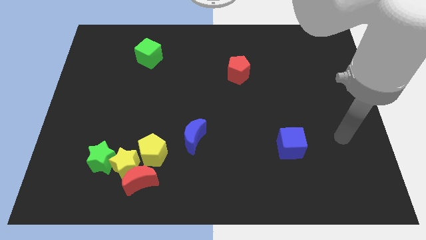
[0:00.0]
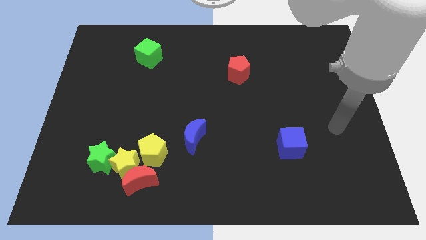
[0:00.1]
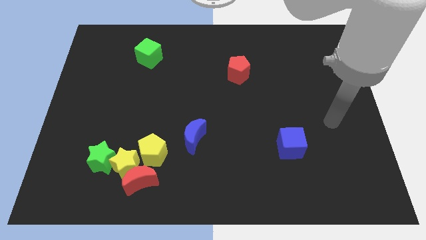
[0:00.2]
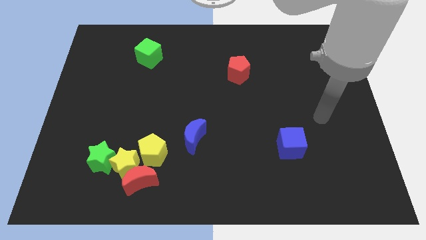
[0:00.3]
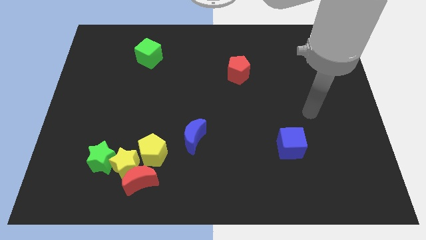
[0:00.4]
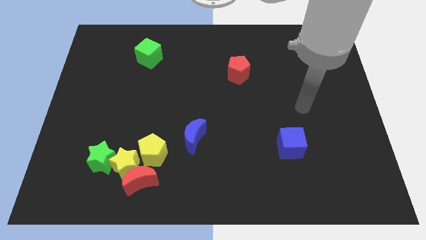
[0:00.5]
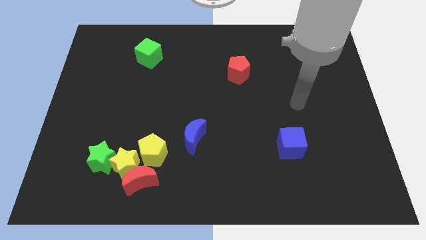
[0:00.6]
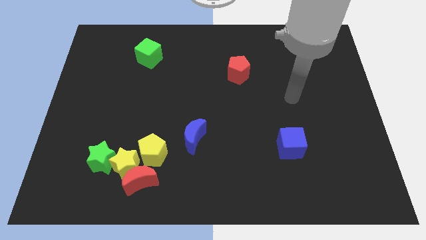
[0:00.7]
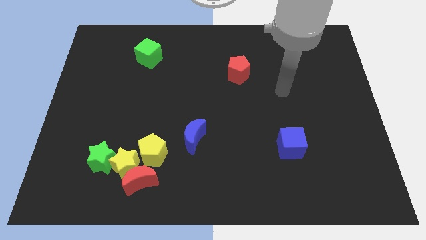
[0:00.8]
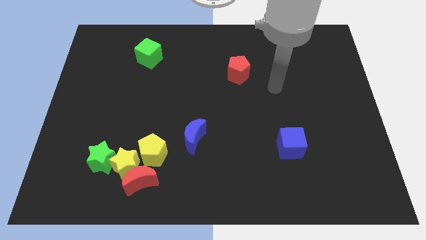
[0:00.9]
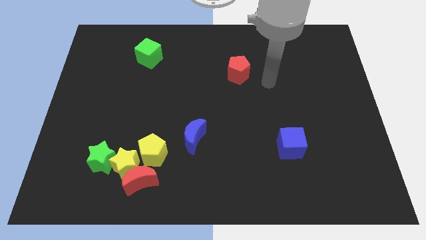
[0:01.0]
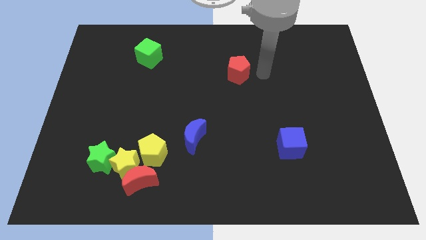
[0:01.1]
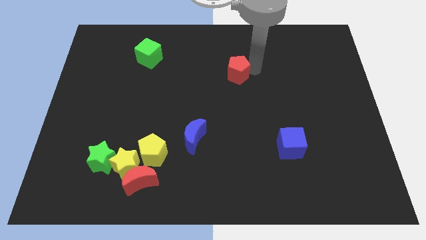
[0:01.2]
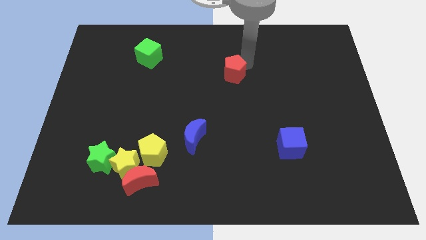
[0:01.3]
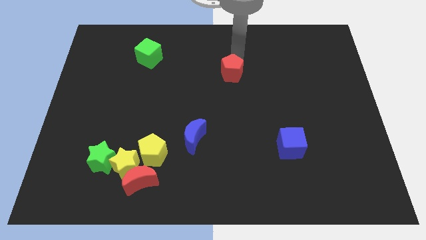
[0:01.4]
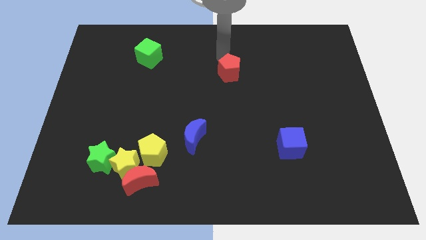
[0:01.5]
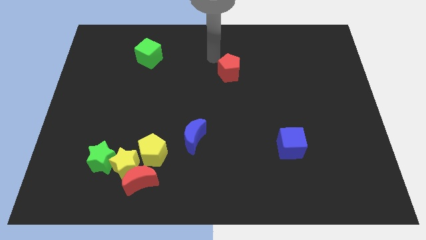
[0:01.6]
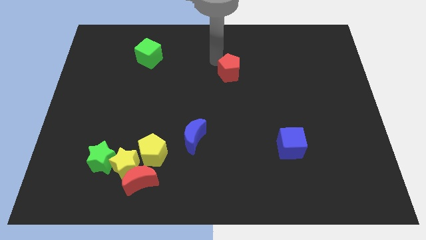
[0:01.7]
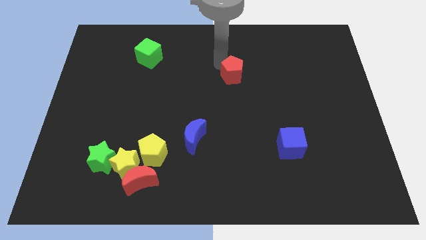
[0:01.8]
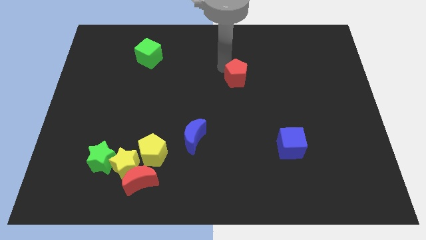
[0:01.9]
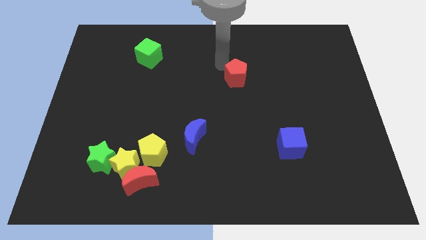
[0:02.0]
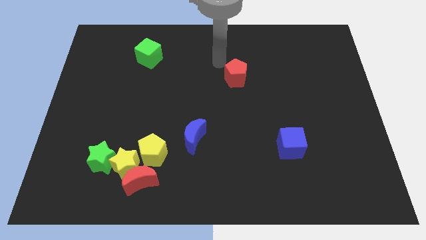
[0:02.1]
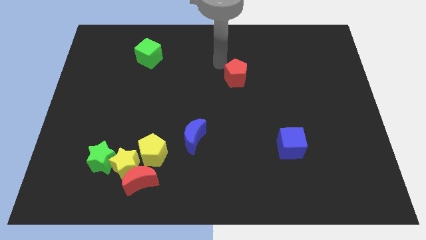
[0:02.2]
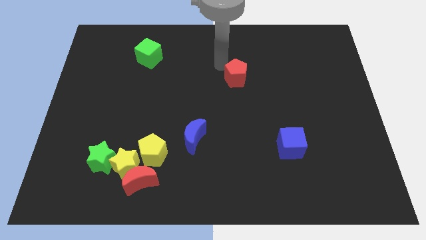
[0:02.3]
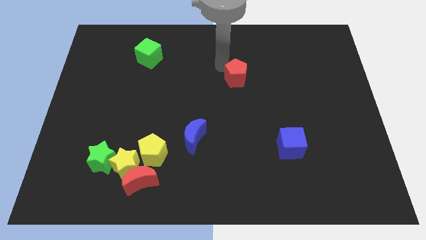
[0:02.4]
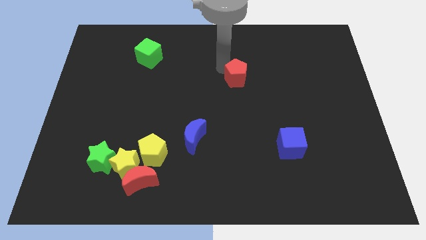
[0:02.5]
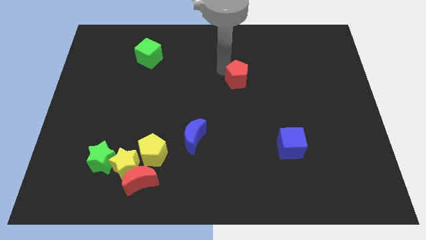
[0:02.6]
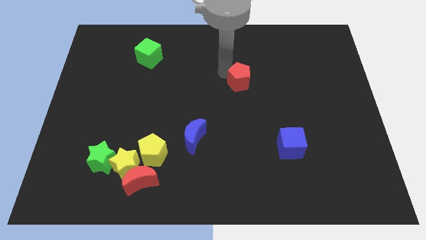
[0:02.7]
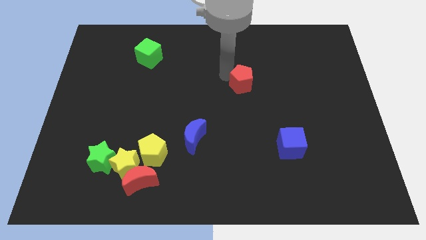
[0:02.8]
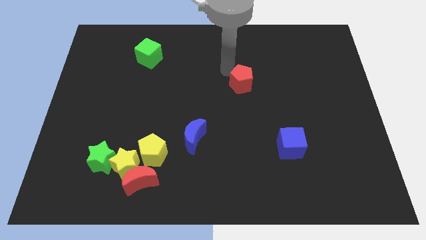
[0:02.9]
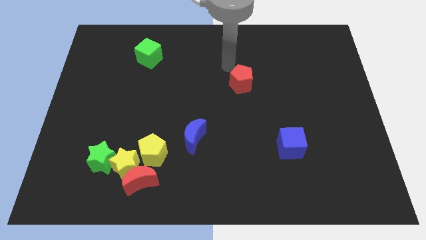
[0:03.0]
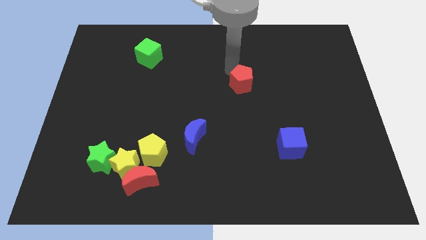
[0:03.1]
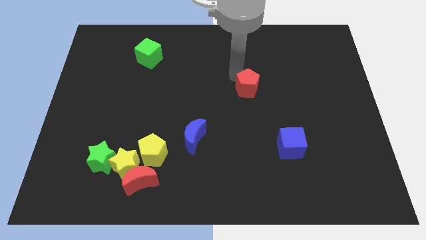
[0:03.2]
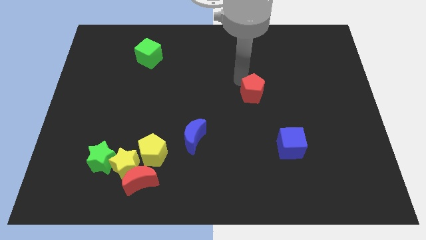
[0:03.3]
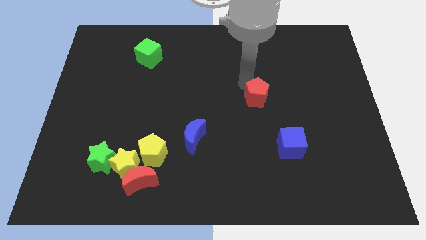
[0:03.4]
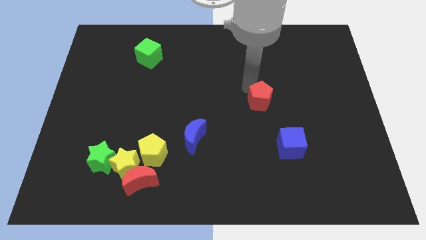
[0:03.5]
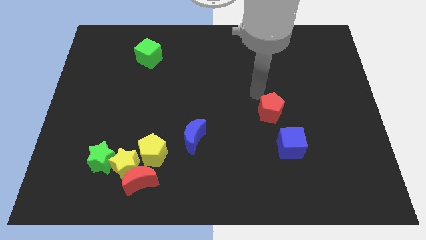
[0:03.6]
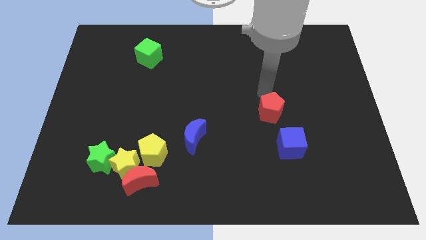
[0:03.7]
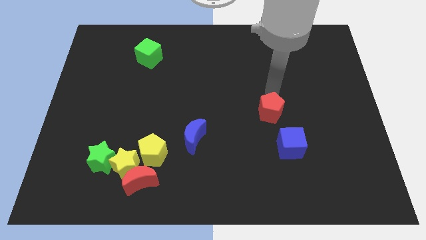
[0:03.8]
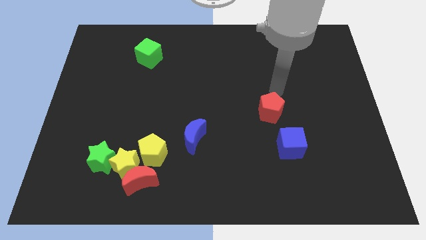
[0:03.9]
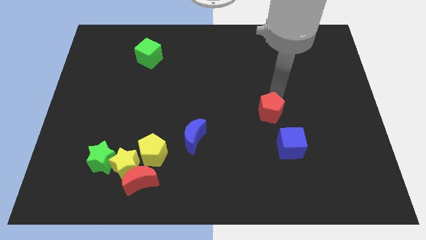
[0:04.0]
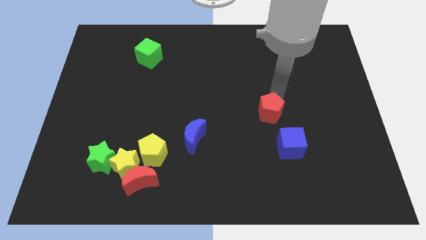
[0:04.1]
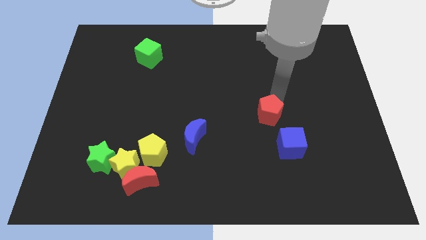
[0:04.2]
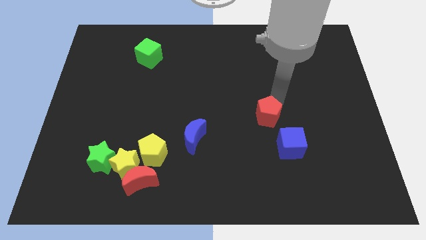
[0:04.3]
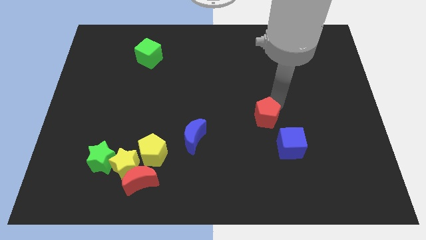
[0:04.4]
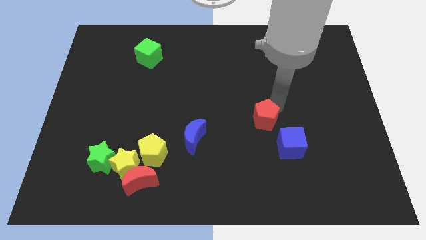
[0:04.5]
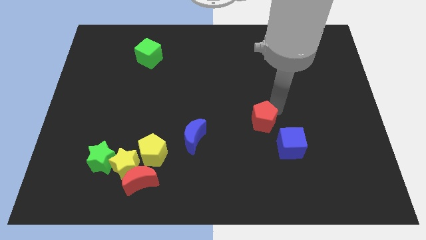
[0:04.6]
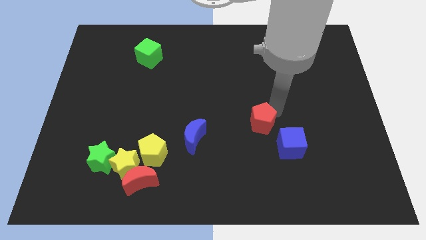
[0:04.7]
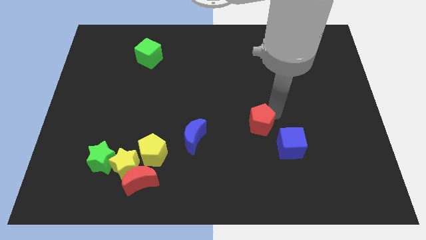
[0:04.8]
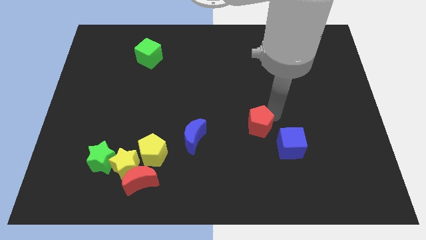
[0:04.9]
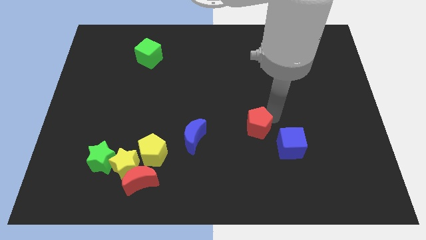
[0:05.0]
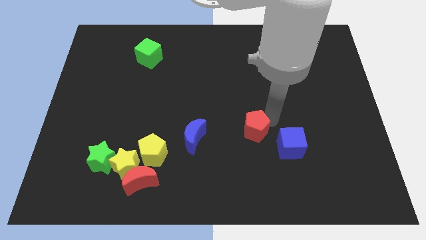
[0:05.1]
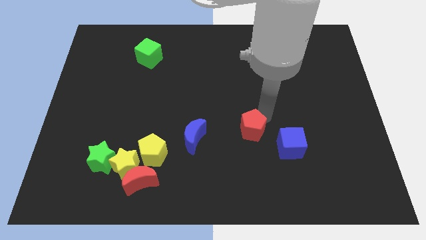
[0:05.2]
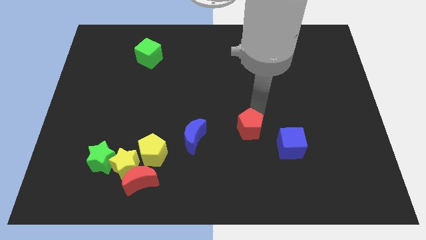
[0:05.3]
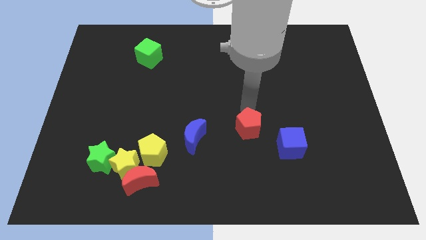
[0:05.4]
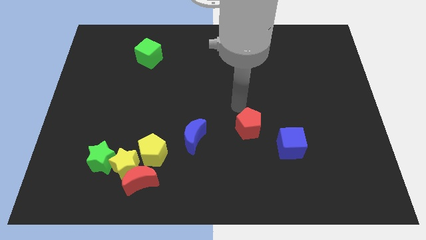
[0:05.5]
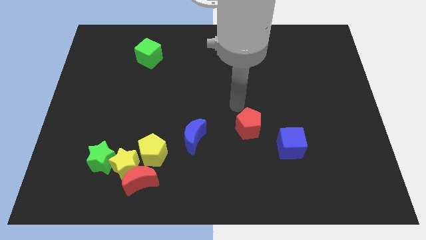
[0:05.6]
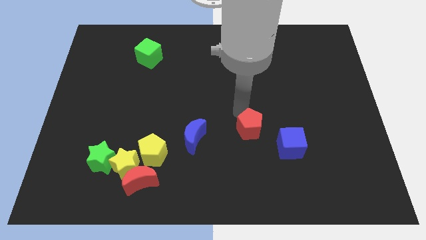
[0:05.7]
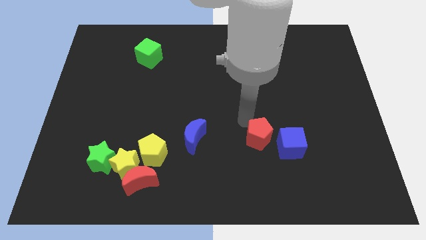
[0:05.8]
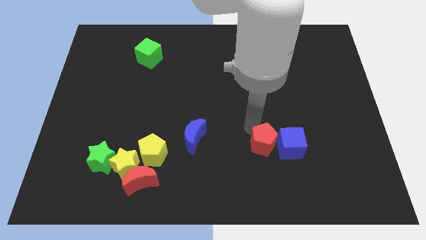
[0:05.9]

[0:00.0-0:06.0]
push the red pentagon diagonally down and to the left of the blue cube

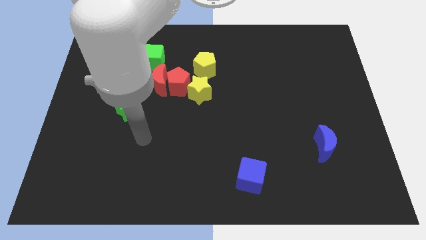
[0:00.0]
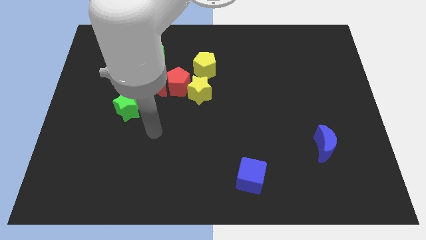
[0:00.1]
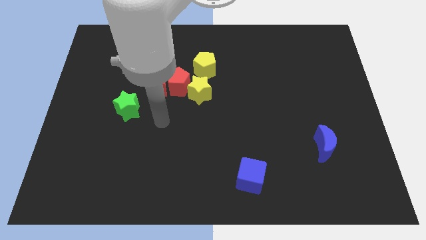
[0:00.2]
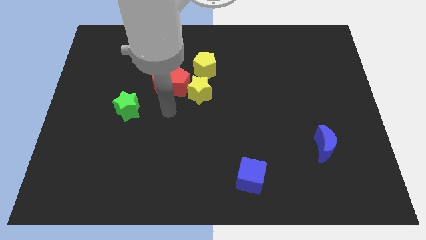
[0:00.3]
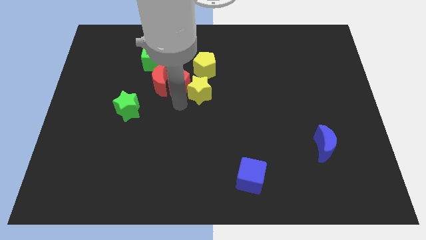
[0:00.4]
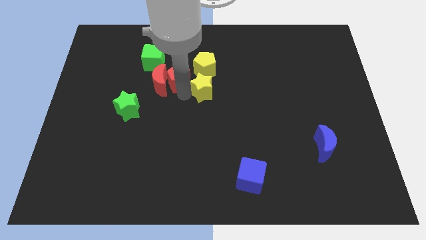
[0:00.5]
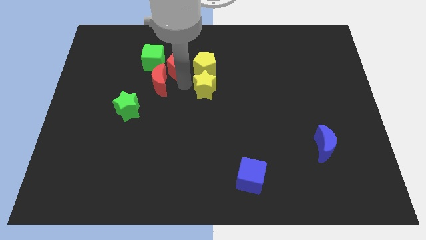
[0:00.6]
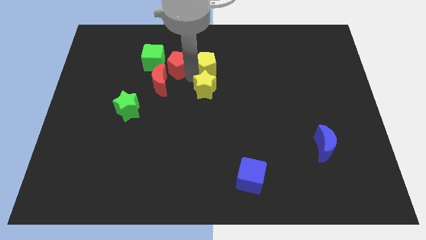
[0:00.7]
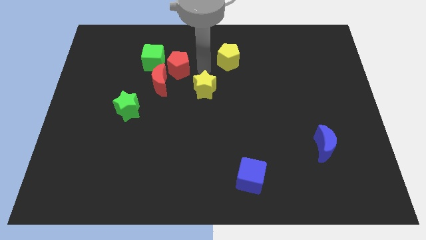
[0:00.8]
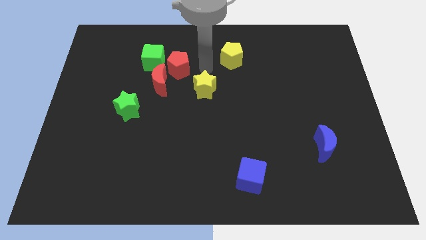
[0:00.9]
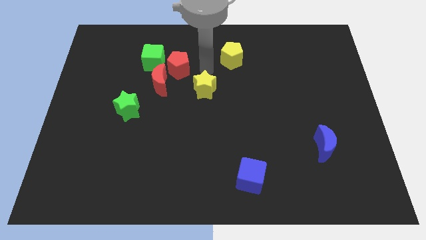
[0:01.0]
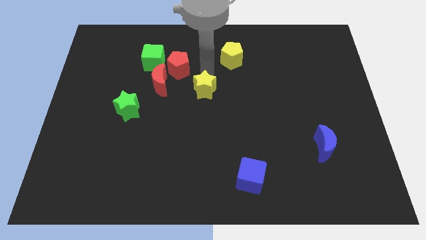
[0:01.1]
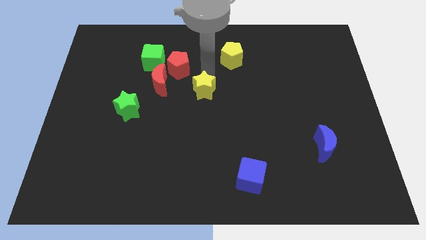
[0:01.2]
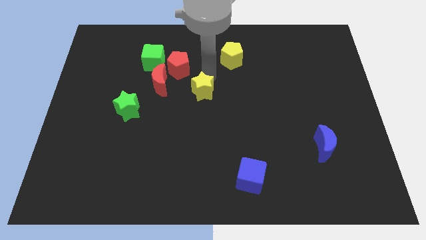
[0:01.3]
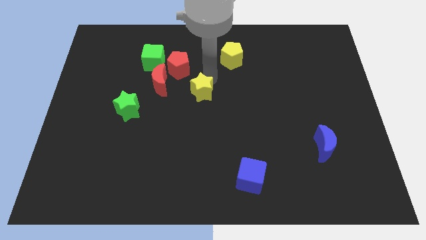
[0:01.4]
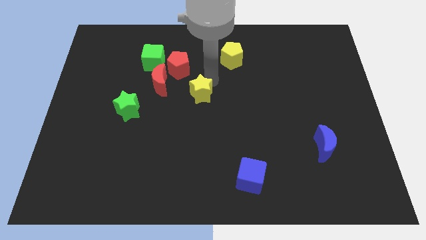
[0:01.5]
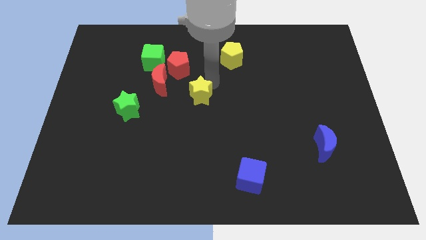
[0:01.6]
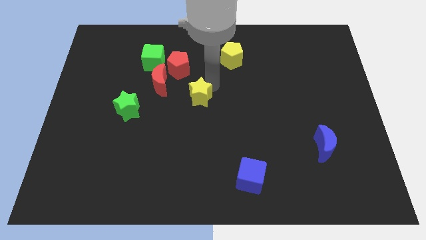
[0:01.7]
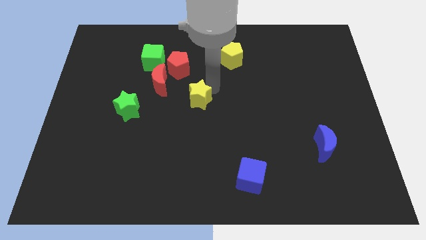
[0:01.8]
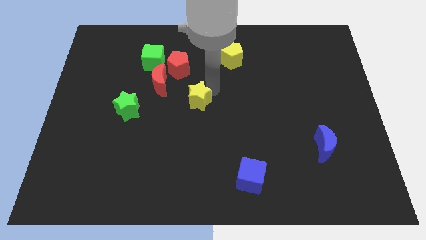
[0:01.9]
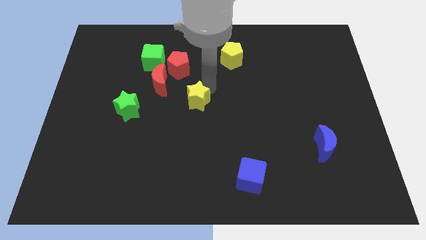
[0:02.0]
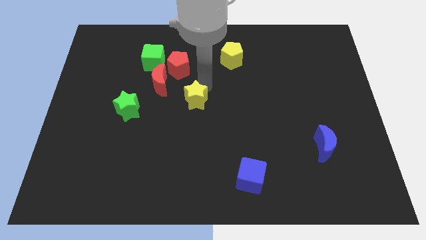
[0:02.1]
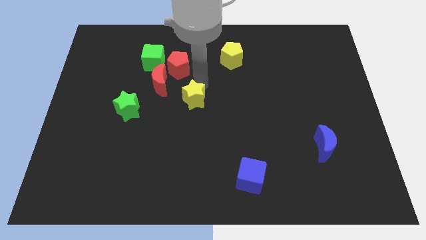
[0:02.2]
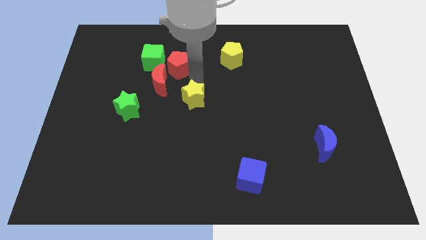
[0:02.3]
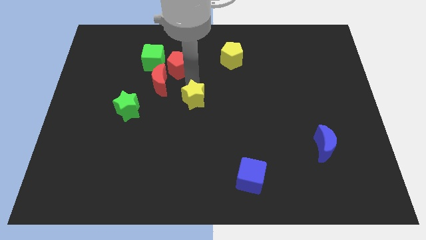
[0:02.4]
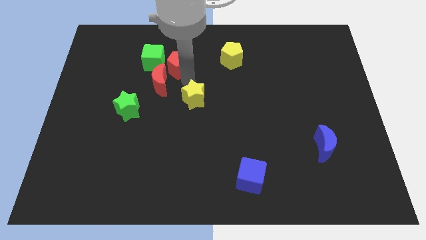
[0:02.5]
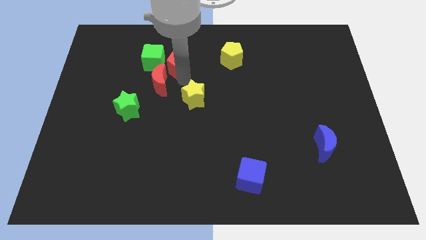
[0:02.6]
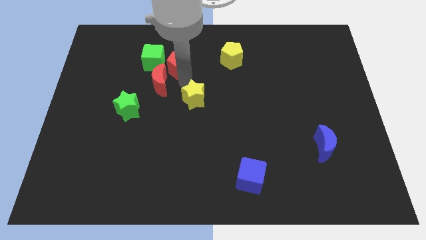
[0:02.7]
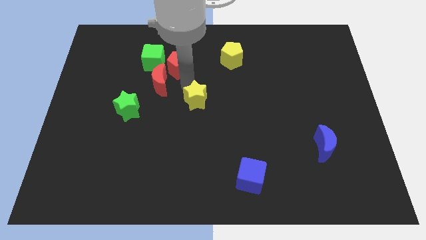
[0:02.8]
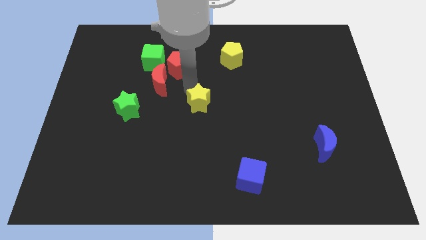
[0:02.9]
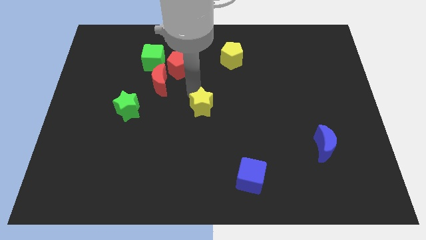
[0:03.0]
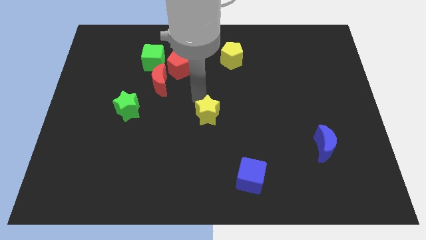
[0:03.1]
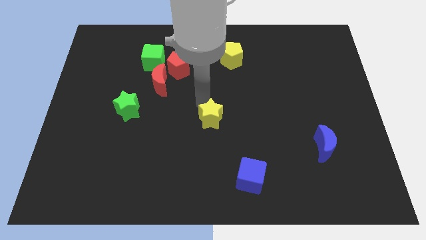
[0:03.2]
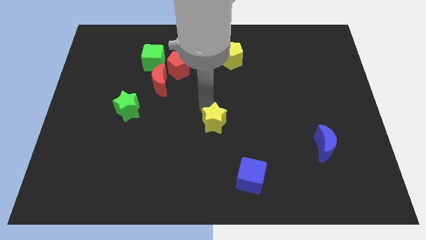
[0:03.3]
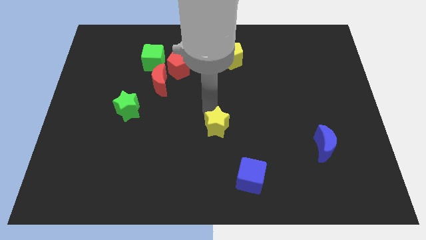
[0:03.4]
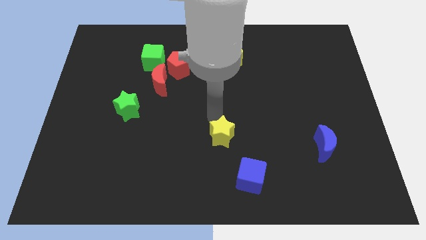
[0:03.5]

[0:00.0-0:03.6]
push the yellow star to the top left of the blue cube
